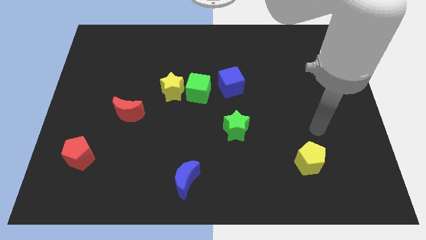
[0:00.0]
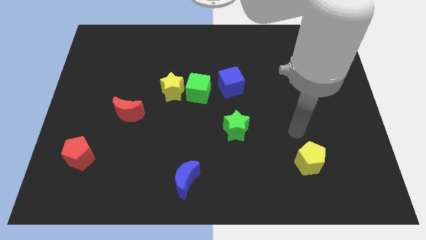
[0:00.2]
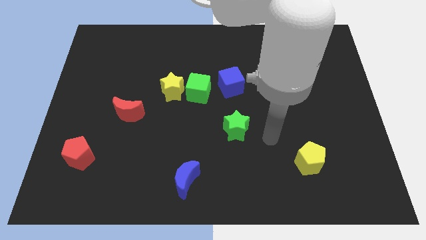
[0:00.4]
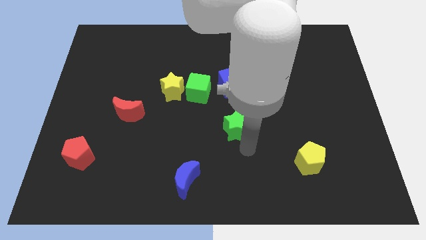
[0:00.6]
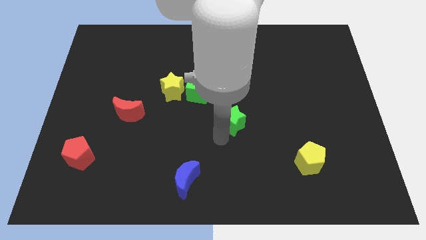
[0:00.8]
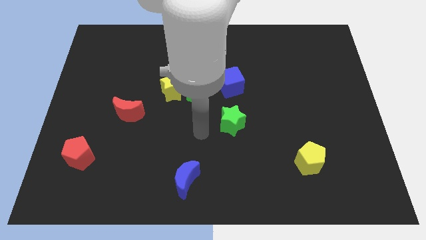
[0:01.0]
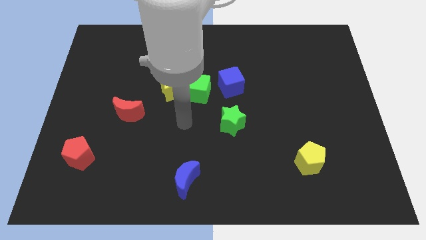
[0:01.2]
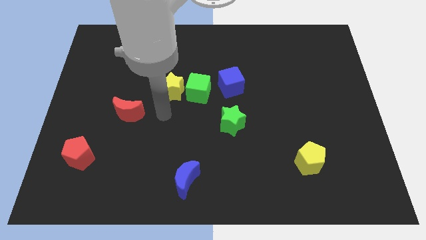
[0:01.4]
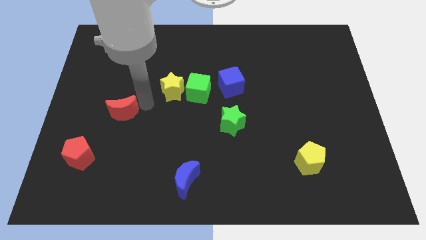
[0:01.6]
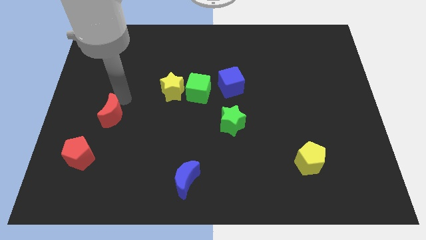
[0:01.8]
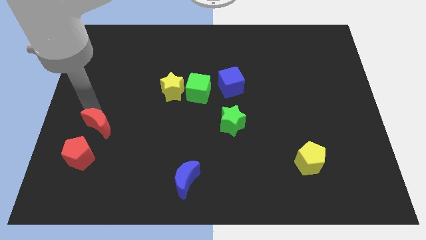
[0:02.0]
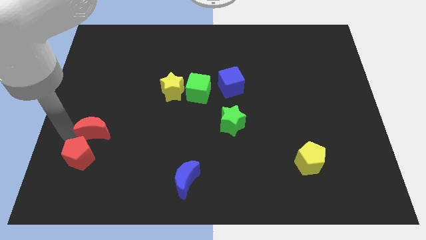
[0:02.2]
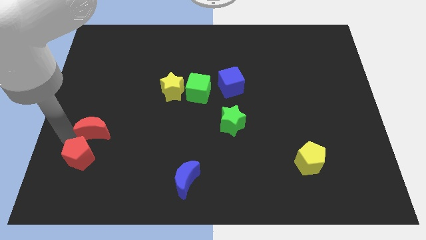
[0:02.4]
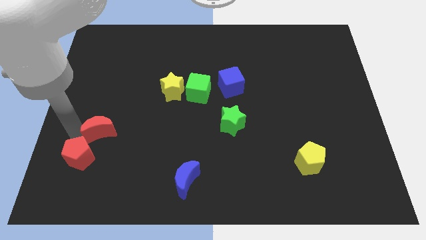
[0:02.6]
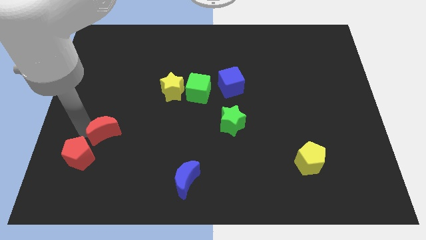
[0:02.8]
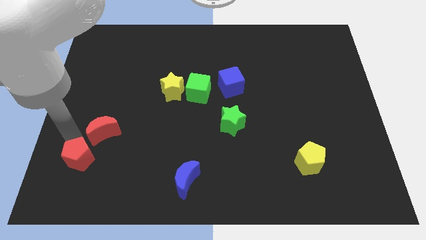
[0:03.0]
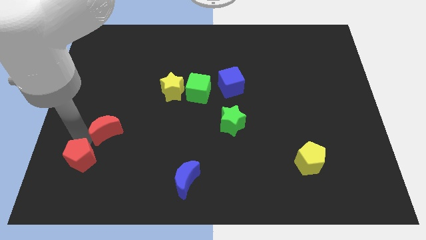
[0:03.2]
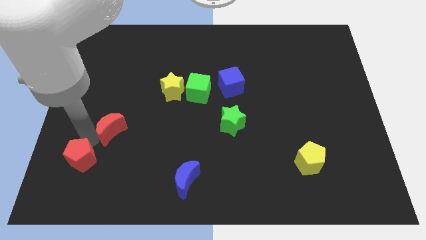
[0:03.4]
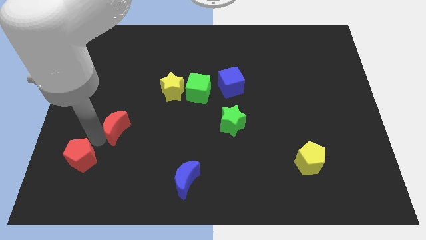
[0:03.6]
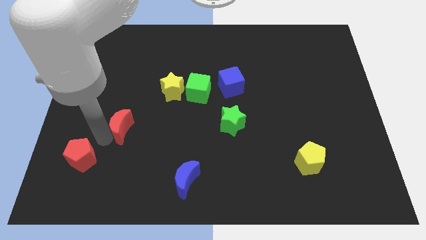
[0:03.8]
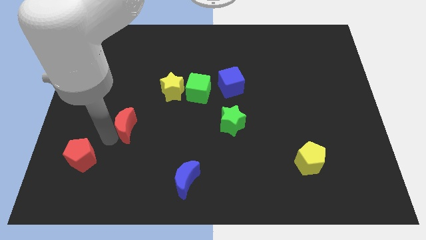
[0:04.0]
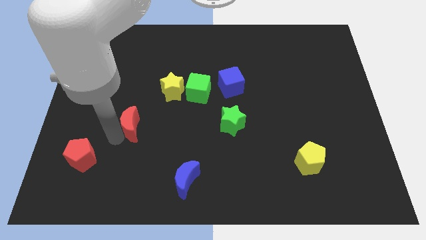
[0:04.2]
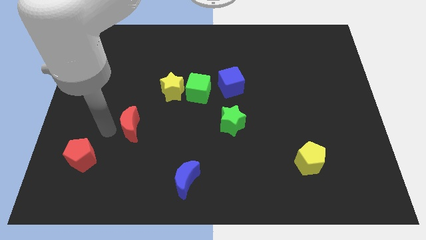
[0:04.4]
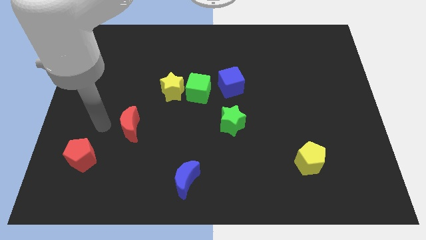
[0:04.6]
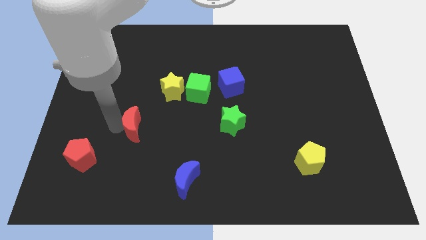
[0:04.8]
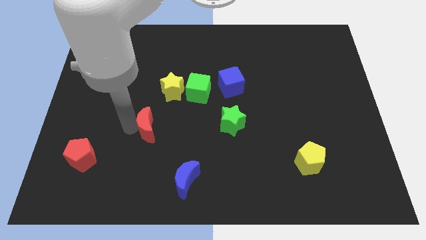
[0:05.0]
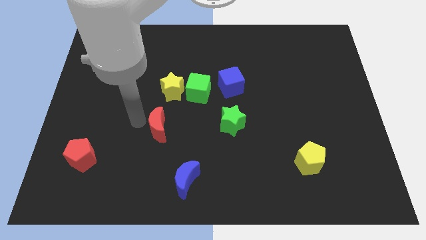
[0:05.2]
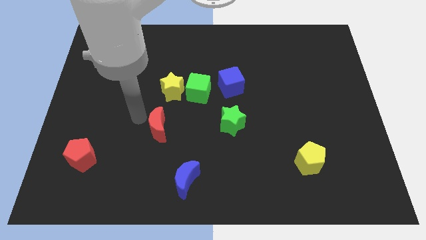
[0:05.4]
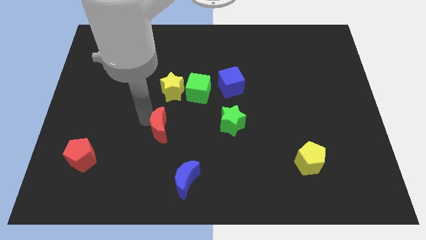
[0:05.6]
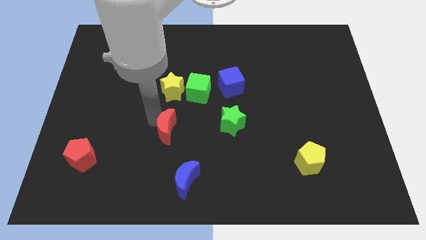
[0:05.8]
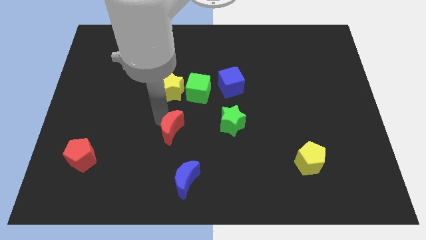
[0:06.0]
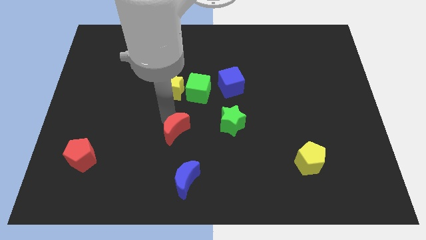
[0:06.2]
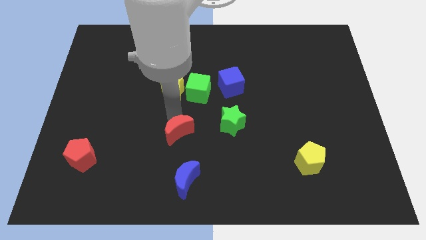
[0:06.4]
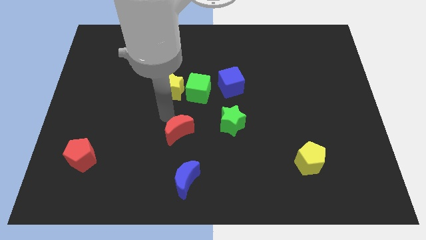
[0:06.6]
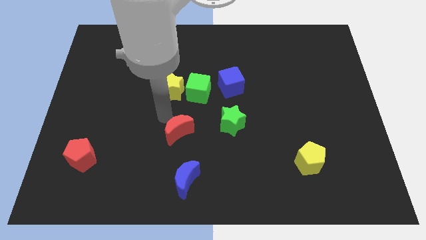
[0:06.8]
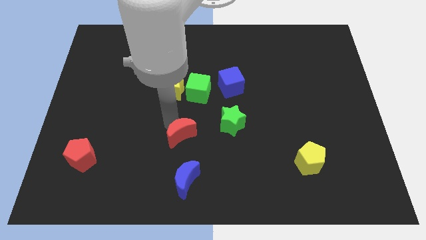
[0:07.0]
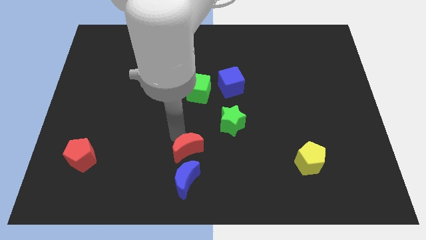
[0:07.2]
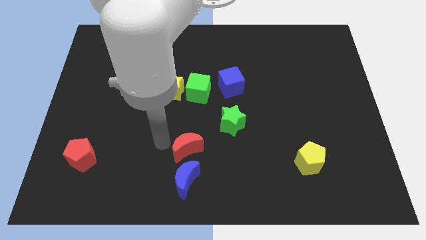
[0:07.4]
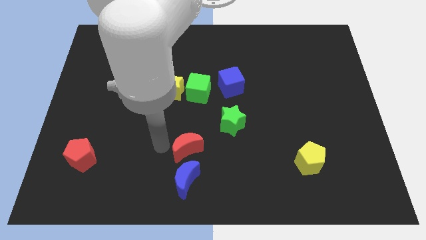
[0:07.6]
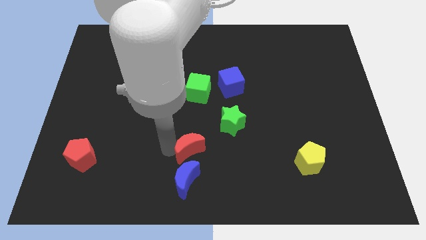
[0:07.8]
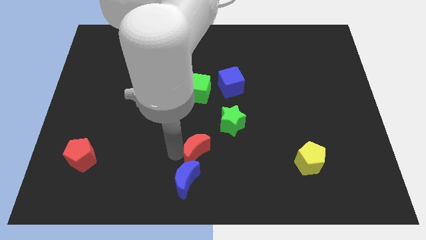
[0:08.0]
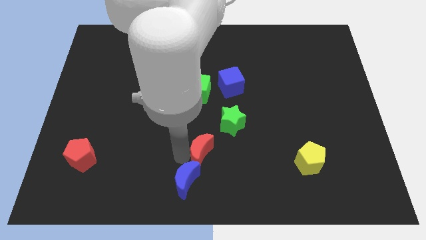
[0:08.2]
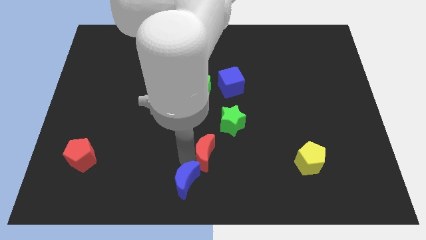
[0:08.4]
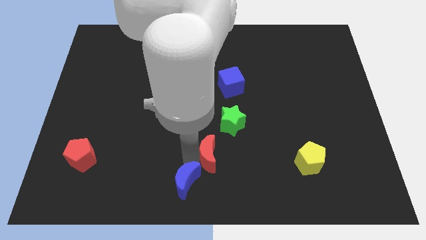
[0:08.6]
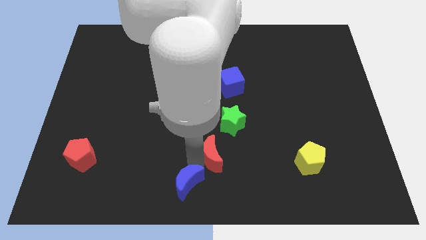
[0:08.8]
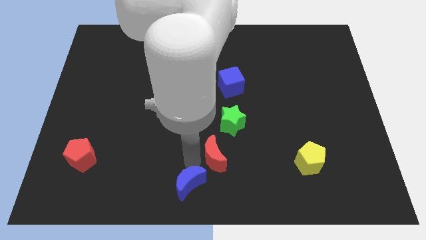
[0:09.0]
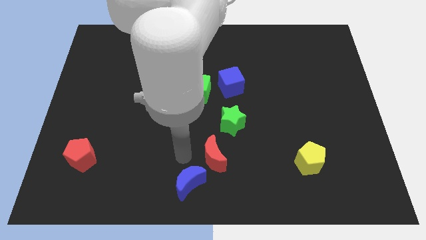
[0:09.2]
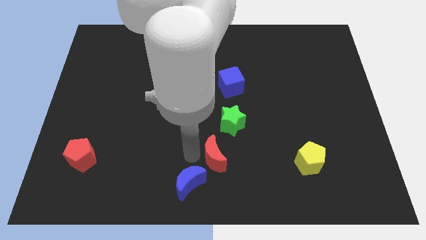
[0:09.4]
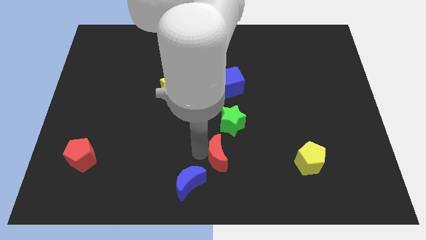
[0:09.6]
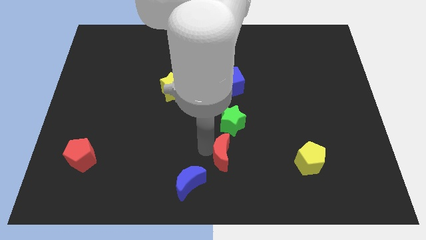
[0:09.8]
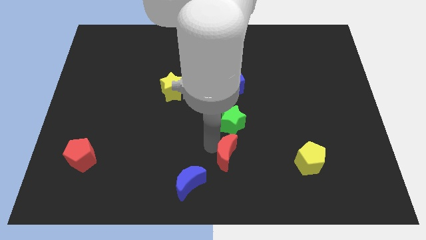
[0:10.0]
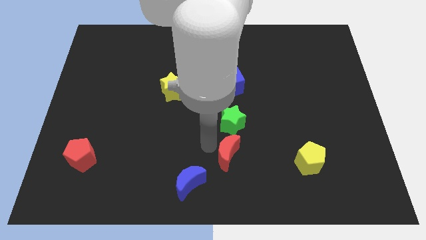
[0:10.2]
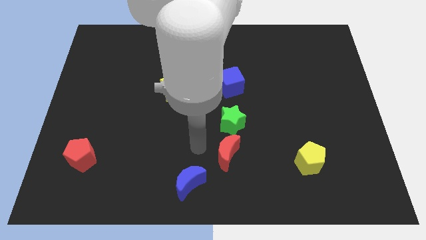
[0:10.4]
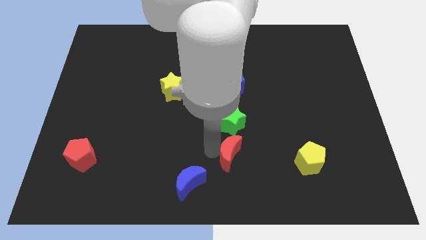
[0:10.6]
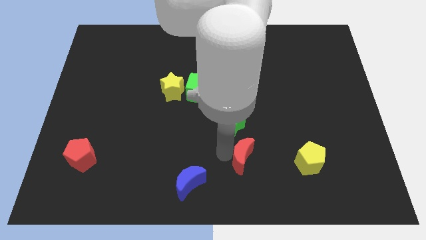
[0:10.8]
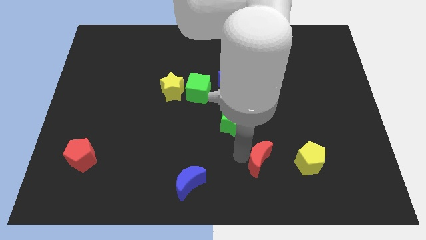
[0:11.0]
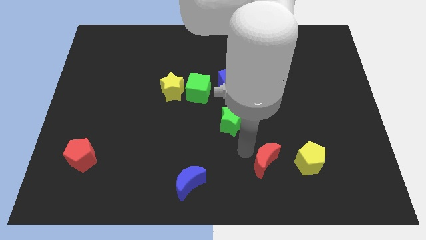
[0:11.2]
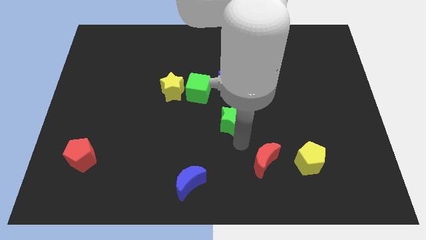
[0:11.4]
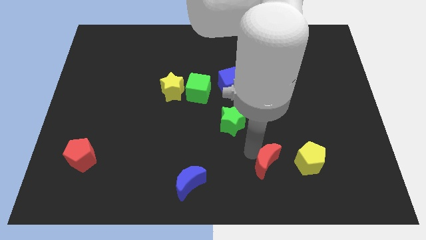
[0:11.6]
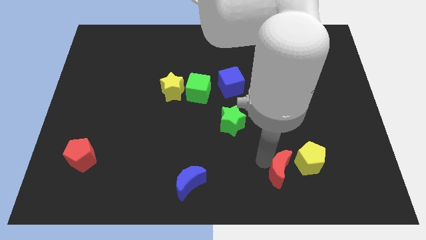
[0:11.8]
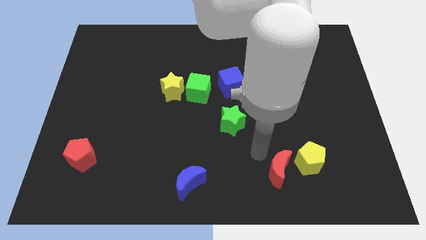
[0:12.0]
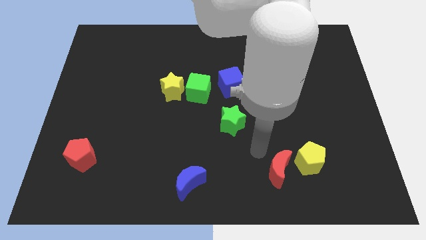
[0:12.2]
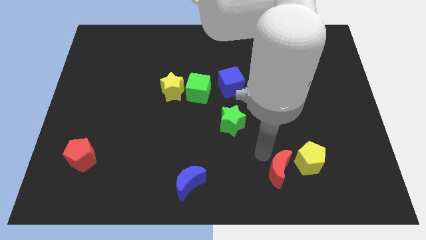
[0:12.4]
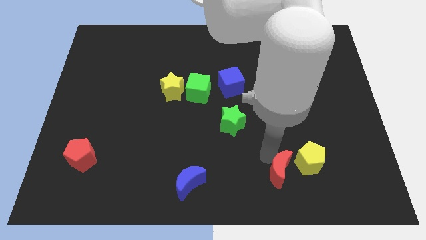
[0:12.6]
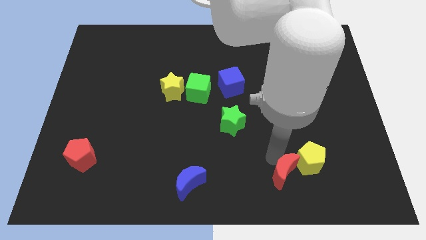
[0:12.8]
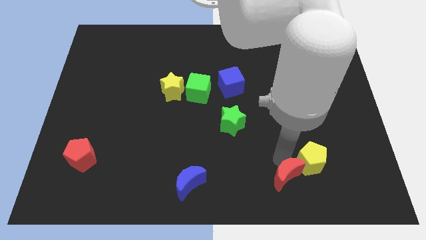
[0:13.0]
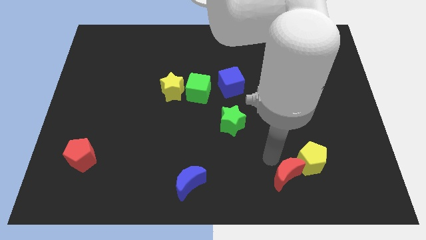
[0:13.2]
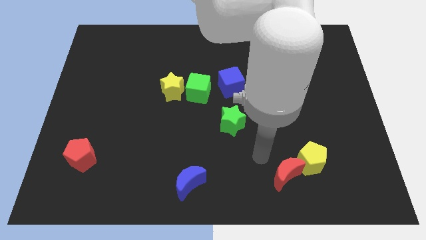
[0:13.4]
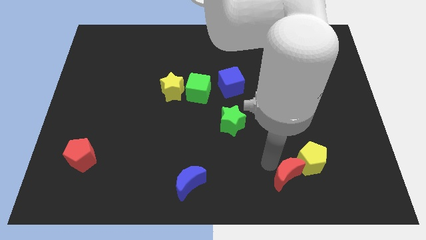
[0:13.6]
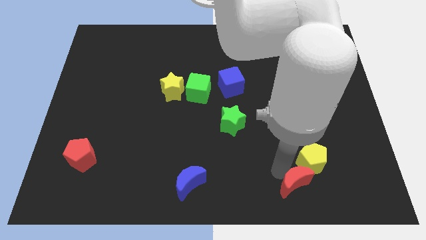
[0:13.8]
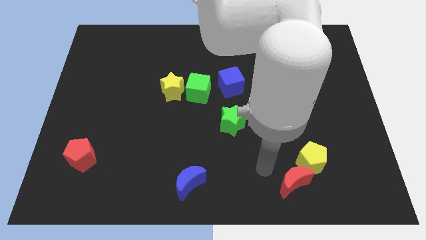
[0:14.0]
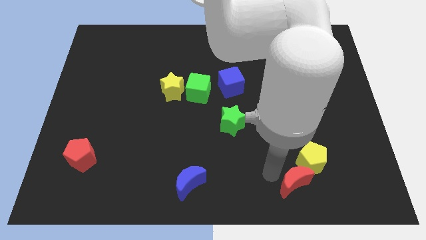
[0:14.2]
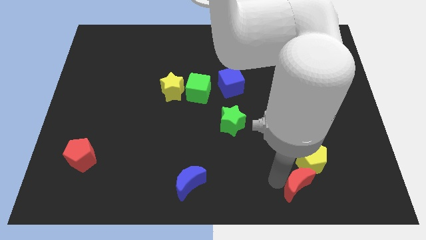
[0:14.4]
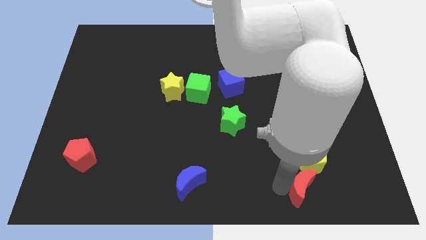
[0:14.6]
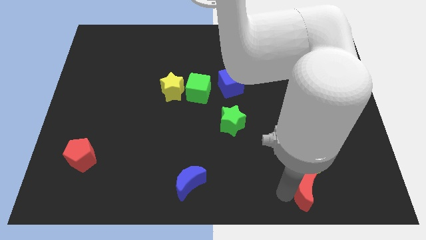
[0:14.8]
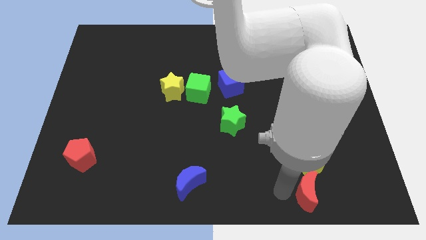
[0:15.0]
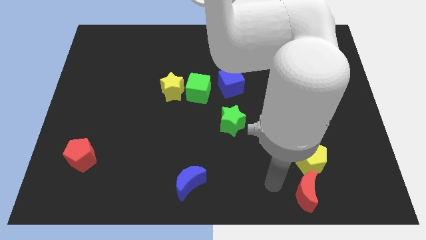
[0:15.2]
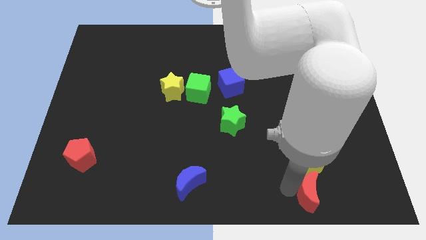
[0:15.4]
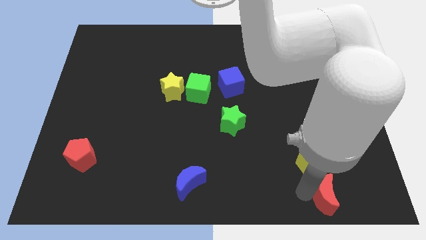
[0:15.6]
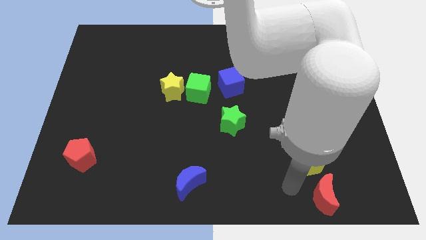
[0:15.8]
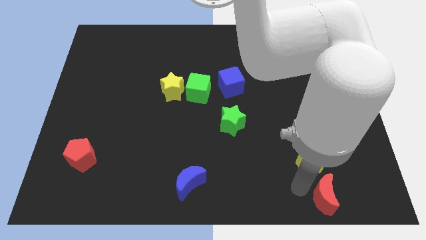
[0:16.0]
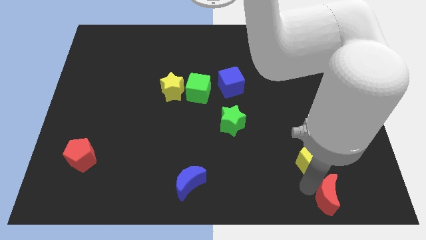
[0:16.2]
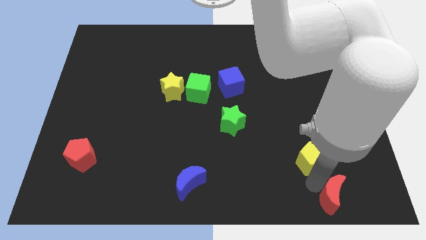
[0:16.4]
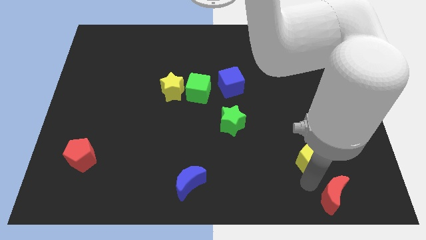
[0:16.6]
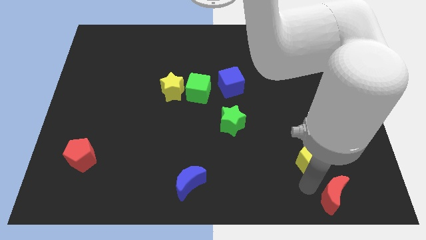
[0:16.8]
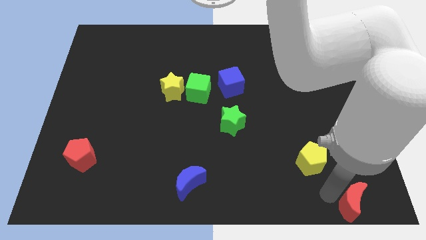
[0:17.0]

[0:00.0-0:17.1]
move the red moon to the lower right corner
